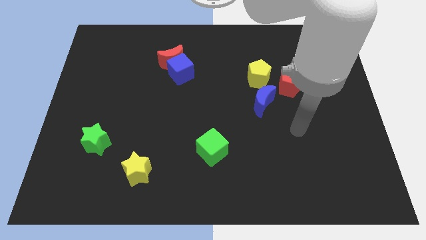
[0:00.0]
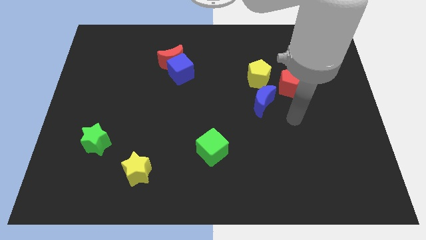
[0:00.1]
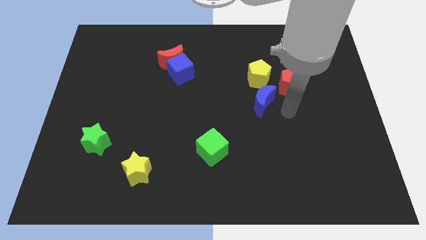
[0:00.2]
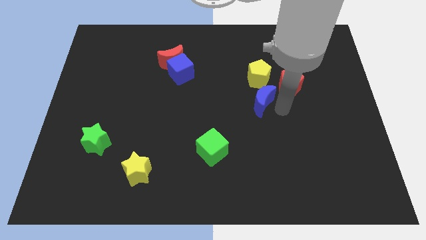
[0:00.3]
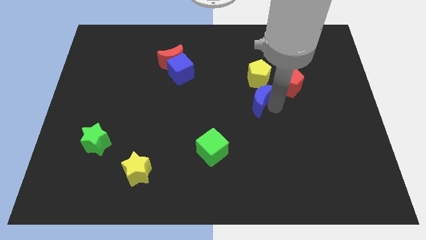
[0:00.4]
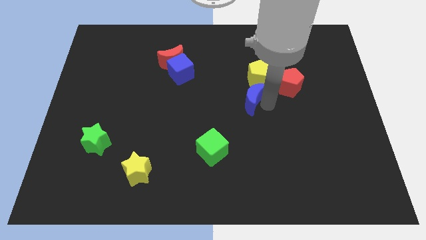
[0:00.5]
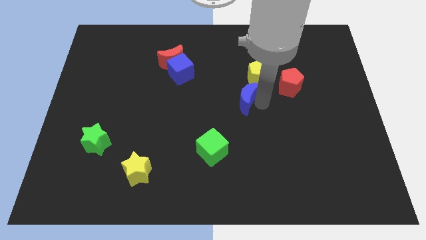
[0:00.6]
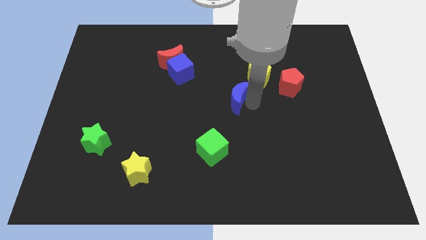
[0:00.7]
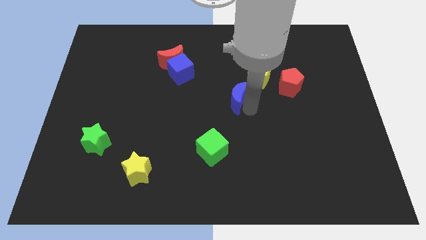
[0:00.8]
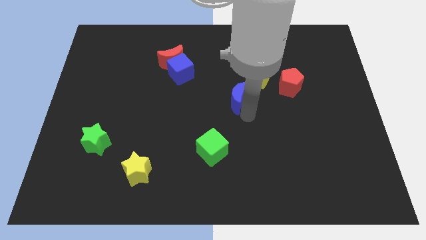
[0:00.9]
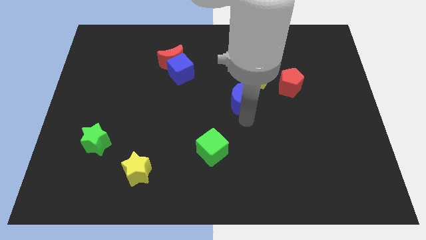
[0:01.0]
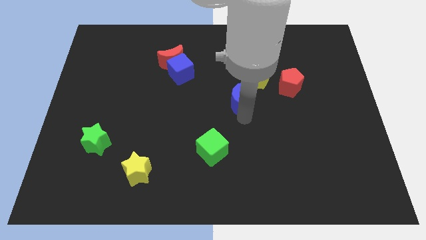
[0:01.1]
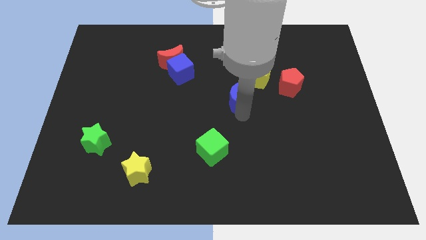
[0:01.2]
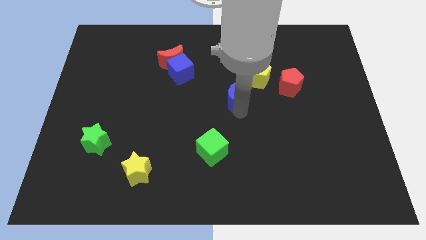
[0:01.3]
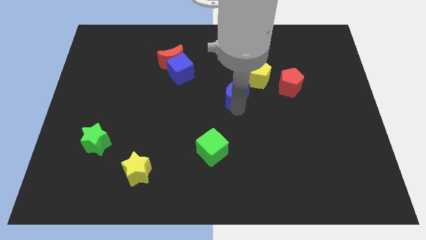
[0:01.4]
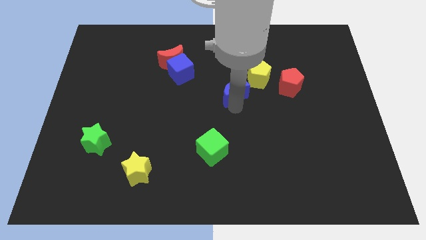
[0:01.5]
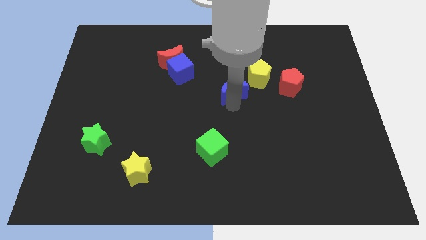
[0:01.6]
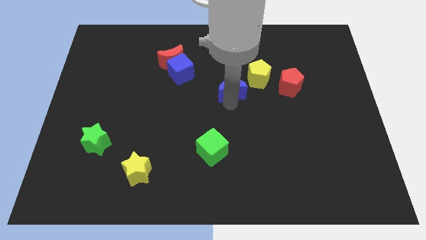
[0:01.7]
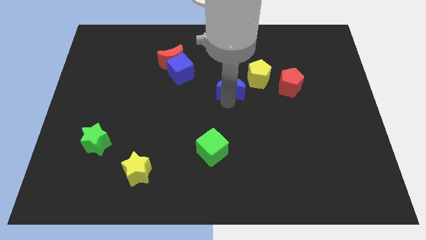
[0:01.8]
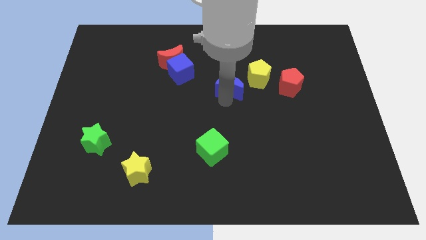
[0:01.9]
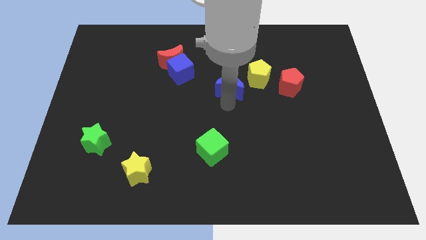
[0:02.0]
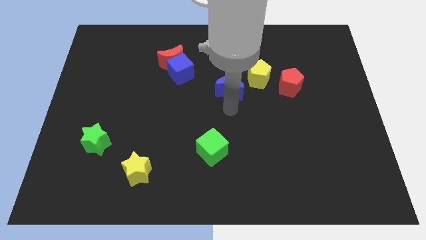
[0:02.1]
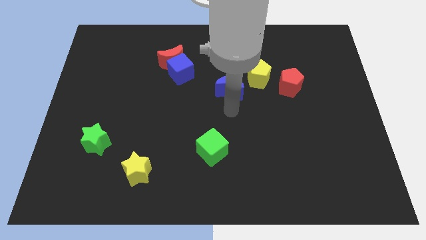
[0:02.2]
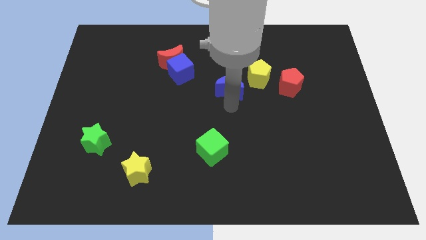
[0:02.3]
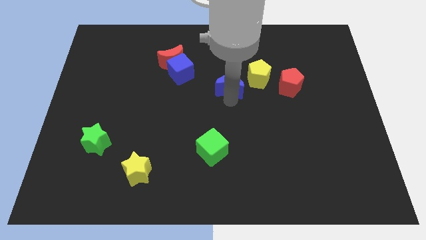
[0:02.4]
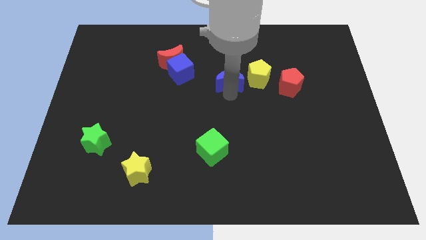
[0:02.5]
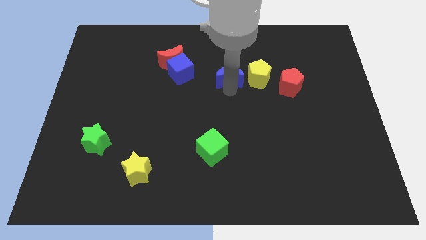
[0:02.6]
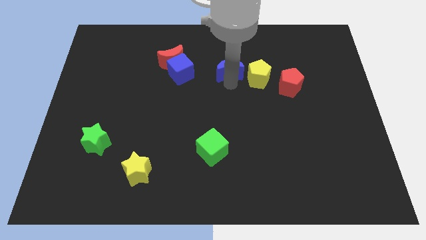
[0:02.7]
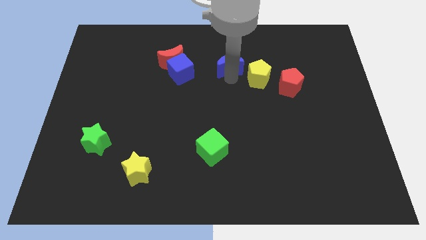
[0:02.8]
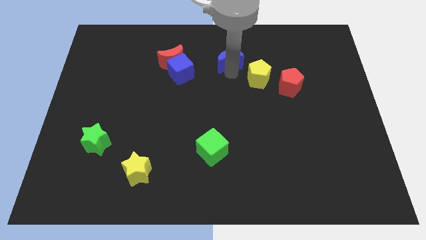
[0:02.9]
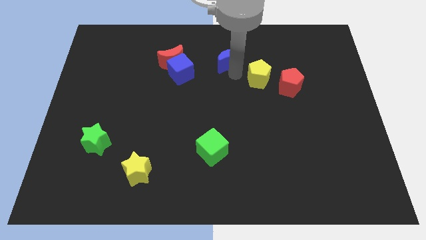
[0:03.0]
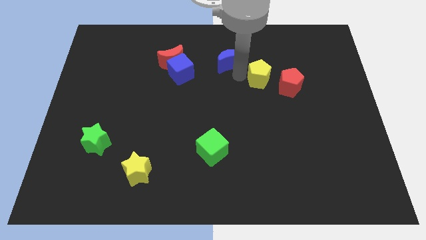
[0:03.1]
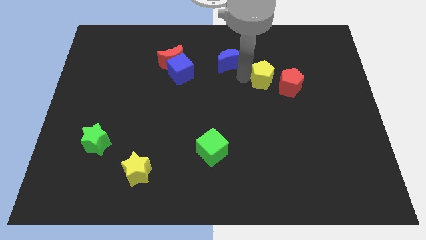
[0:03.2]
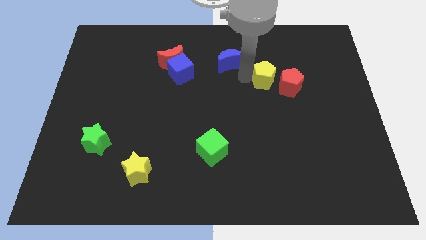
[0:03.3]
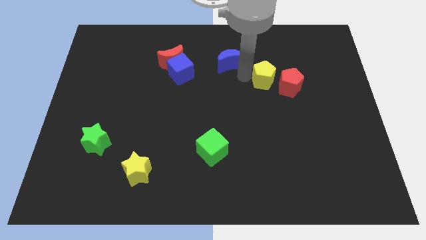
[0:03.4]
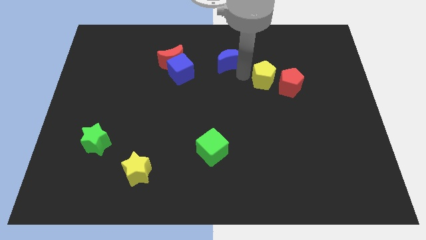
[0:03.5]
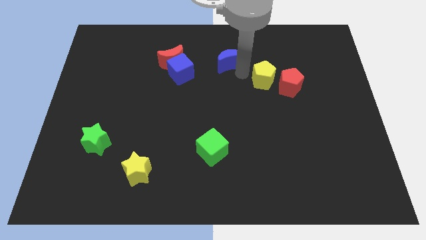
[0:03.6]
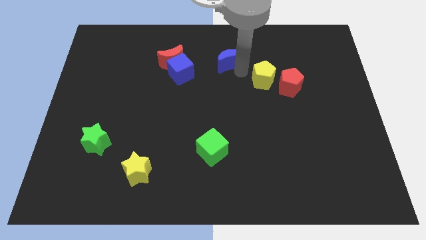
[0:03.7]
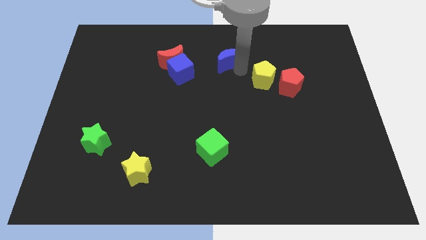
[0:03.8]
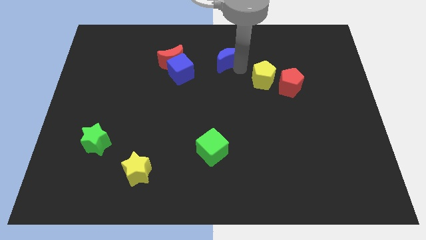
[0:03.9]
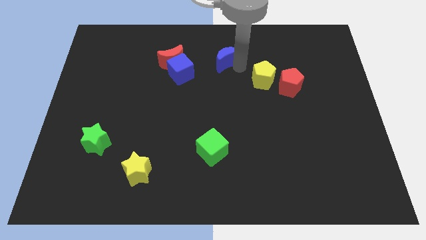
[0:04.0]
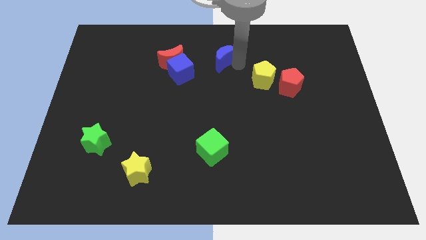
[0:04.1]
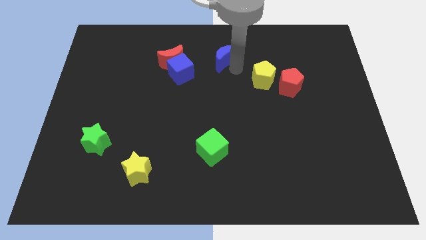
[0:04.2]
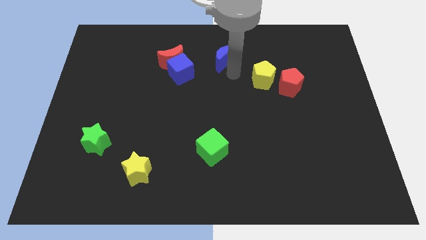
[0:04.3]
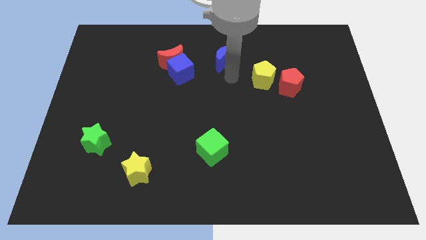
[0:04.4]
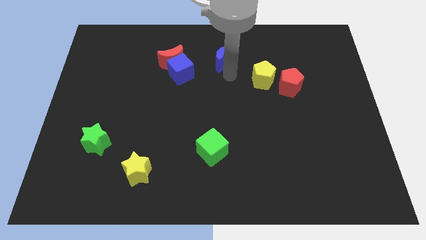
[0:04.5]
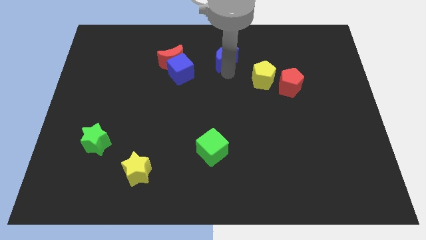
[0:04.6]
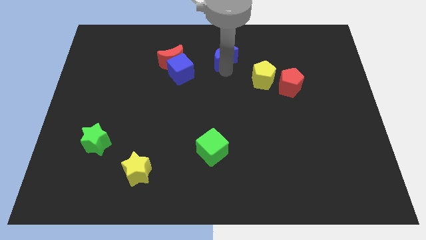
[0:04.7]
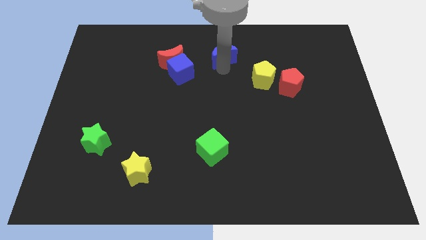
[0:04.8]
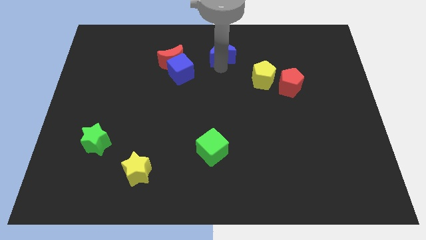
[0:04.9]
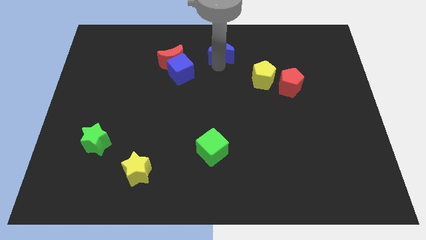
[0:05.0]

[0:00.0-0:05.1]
move the blue moon to the top
